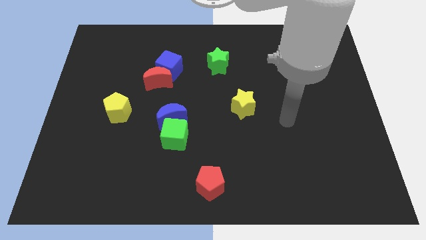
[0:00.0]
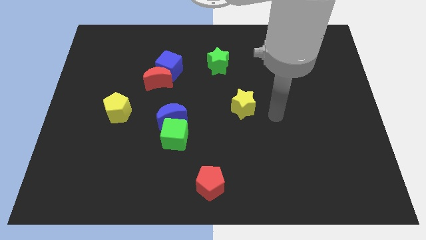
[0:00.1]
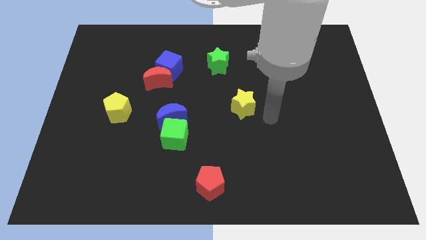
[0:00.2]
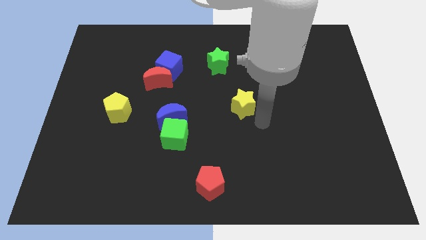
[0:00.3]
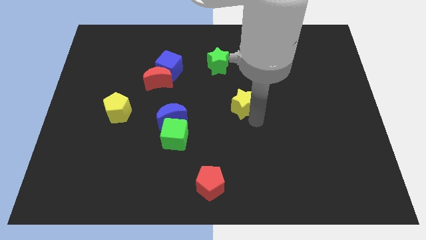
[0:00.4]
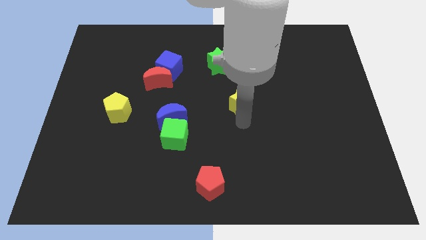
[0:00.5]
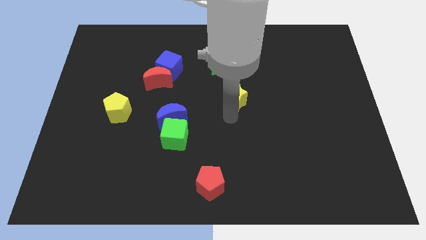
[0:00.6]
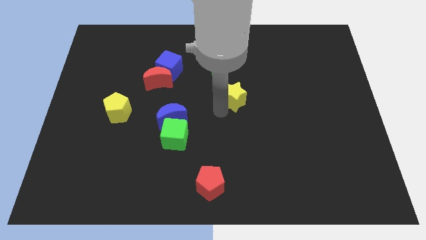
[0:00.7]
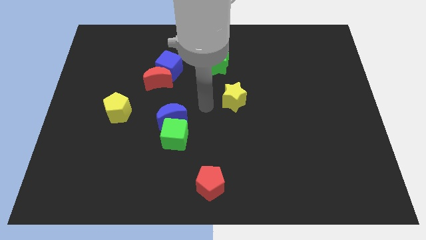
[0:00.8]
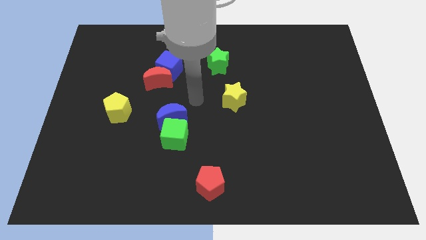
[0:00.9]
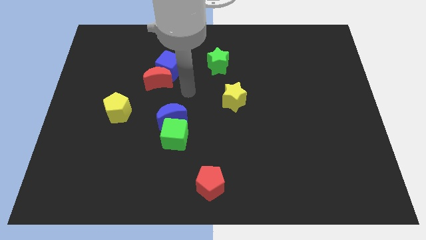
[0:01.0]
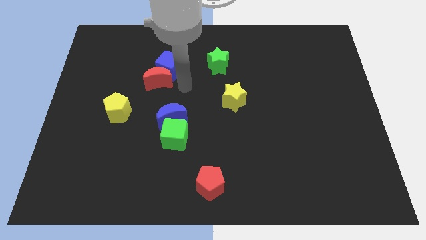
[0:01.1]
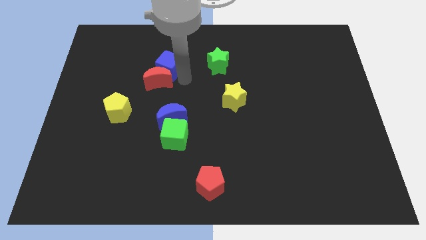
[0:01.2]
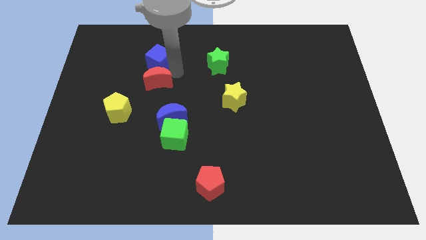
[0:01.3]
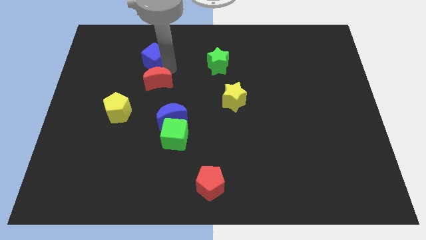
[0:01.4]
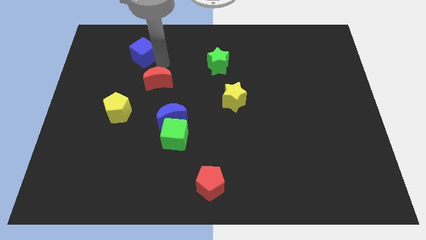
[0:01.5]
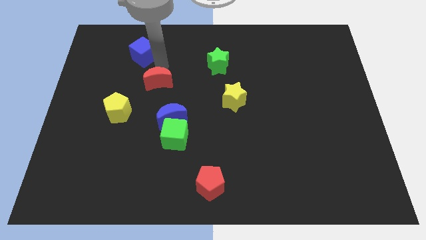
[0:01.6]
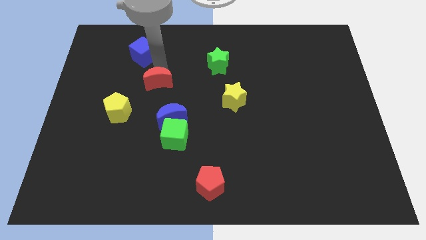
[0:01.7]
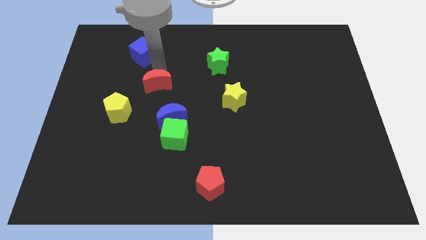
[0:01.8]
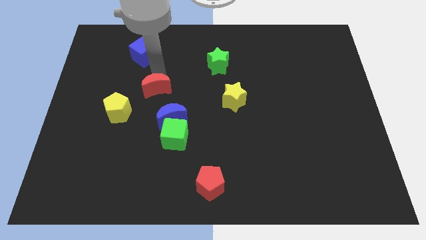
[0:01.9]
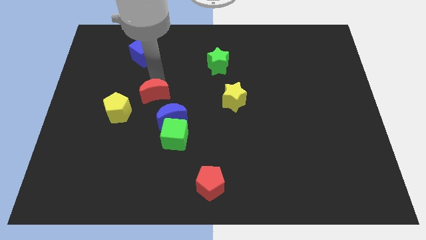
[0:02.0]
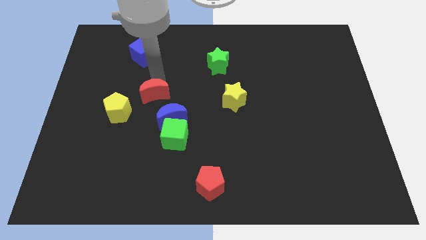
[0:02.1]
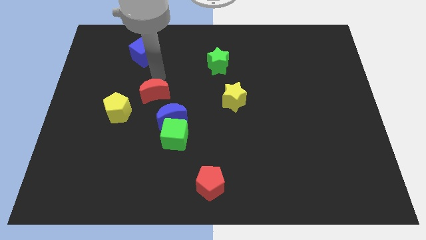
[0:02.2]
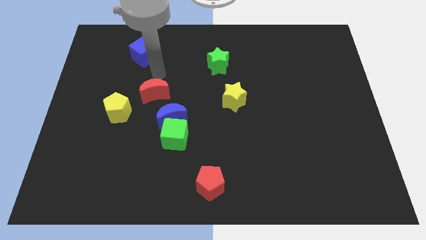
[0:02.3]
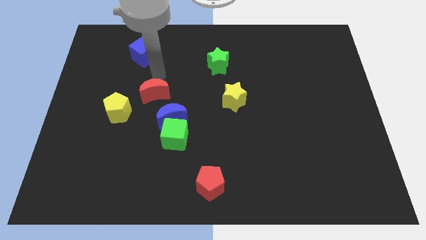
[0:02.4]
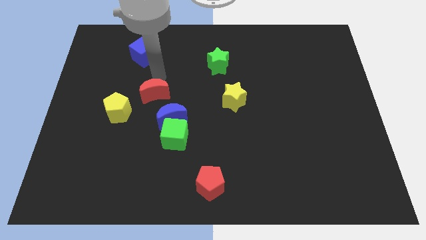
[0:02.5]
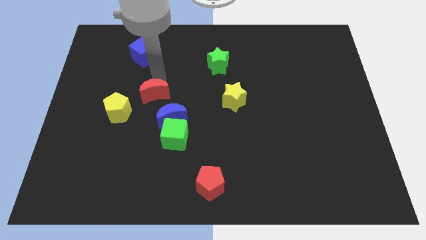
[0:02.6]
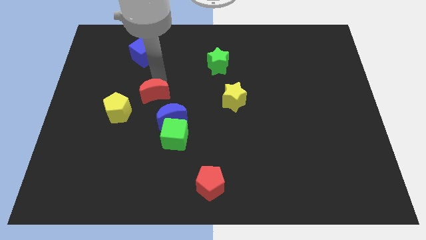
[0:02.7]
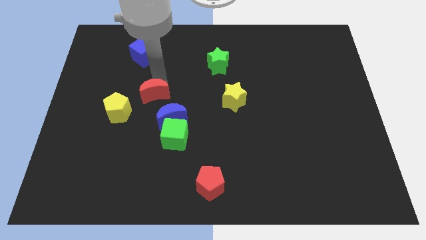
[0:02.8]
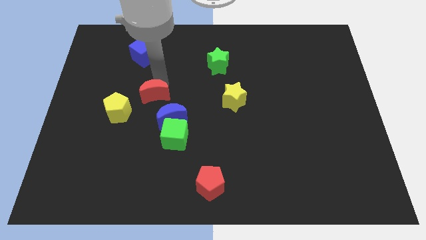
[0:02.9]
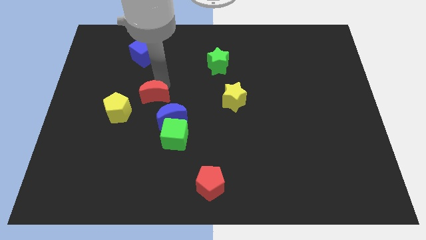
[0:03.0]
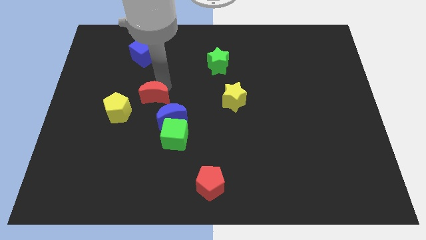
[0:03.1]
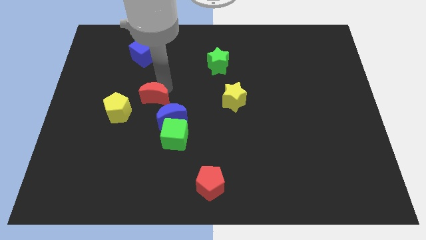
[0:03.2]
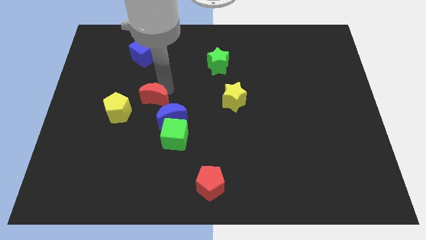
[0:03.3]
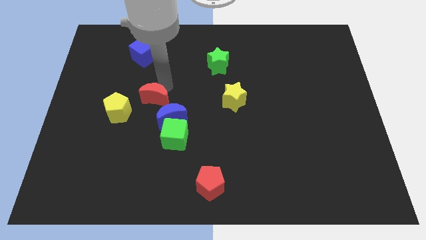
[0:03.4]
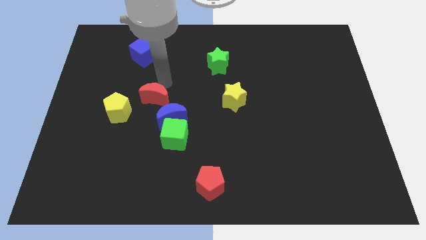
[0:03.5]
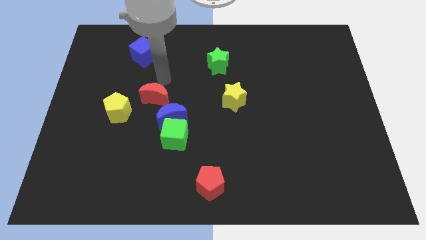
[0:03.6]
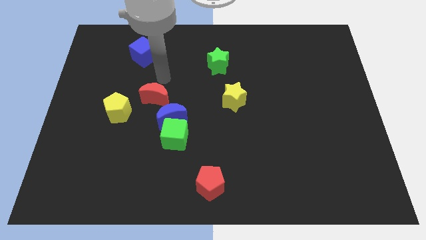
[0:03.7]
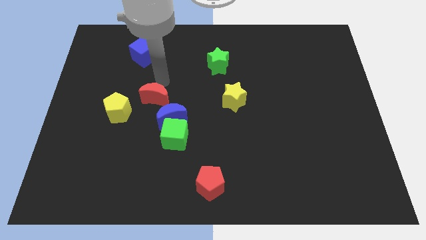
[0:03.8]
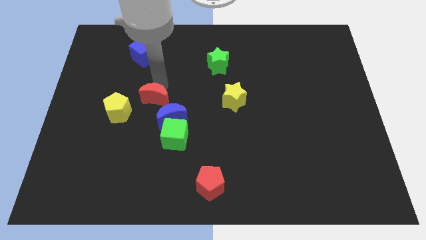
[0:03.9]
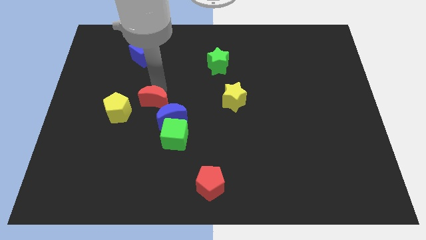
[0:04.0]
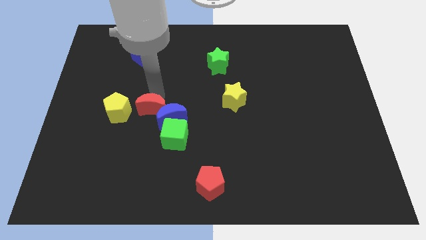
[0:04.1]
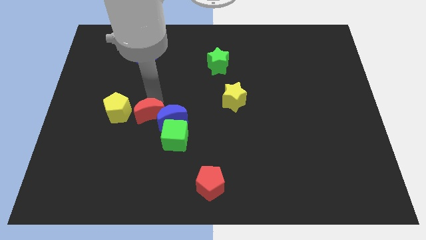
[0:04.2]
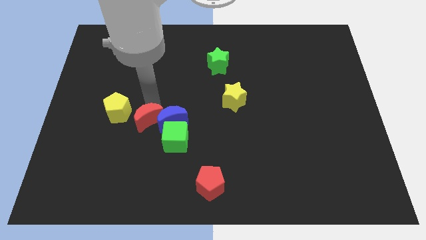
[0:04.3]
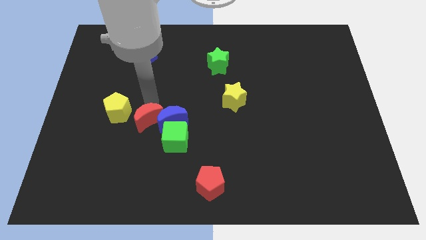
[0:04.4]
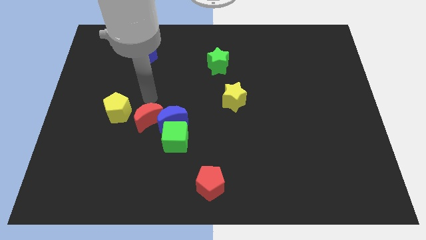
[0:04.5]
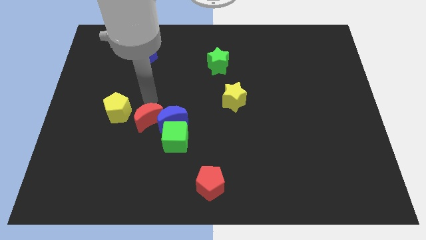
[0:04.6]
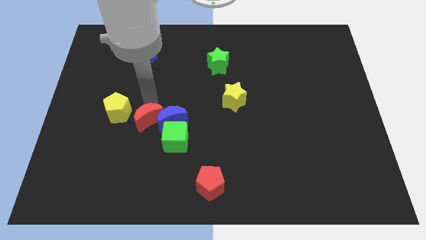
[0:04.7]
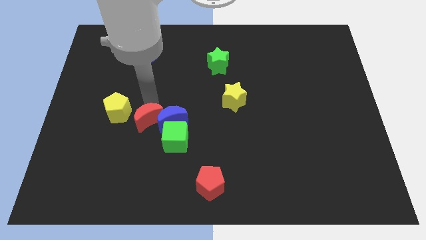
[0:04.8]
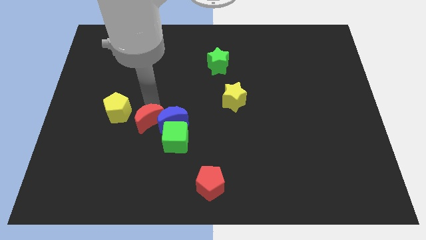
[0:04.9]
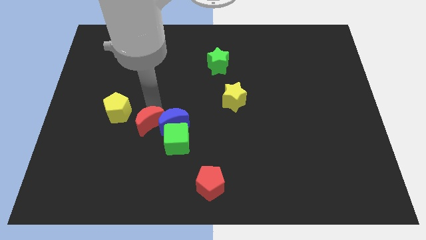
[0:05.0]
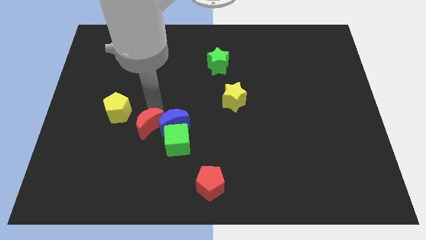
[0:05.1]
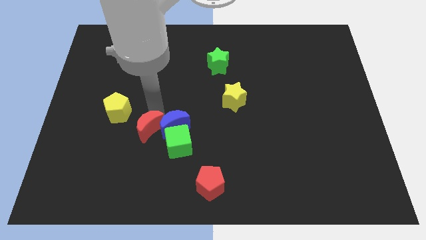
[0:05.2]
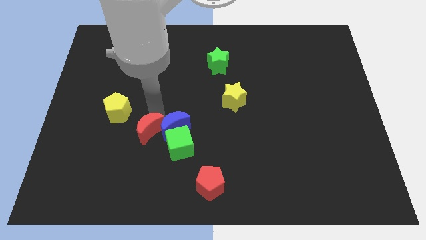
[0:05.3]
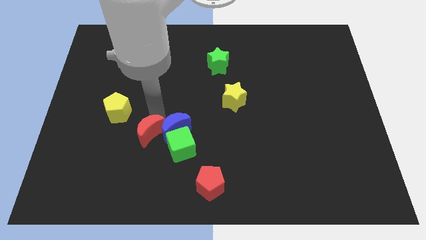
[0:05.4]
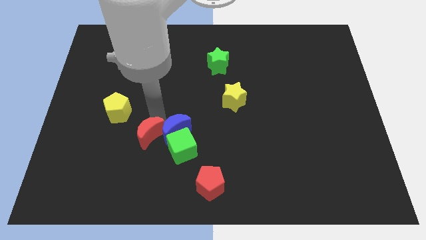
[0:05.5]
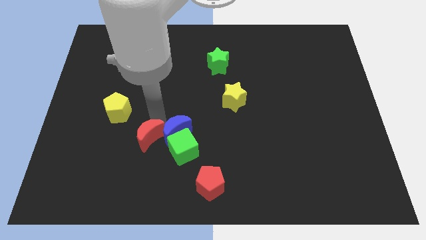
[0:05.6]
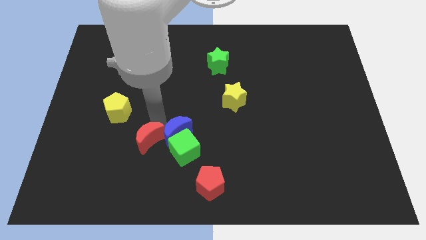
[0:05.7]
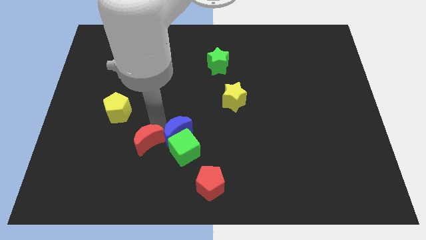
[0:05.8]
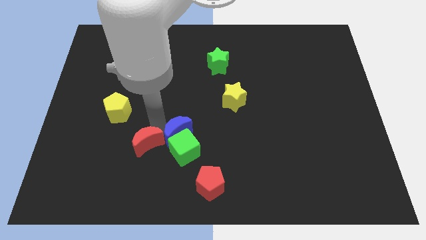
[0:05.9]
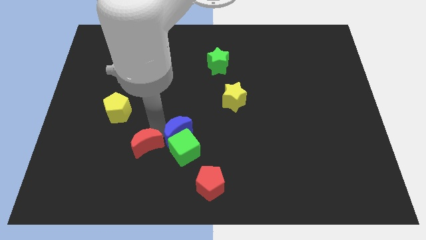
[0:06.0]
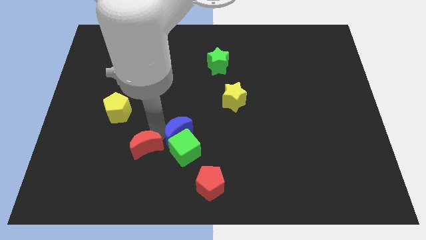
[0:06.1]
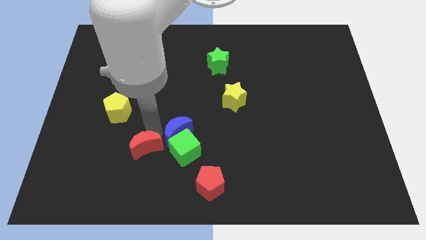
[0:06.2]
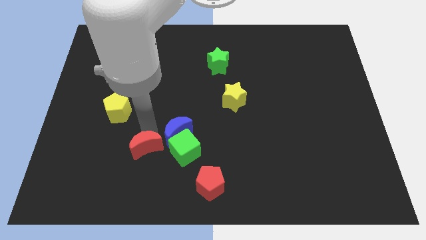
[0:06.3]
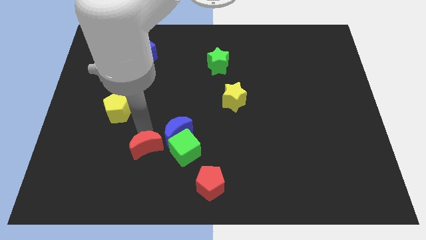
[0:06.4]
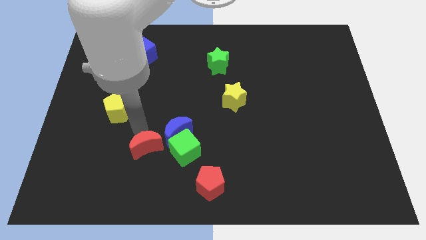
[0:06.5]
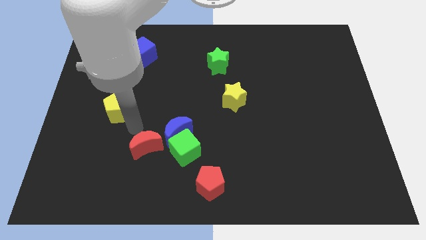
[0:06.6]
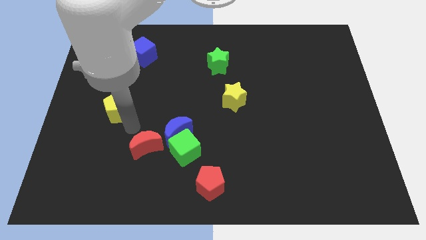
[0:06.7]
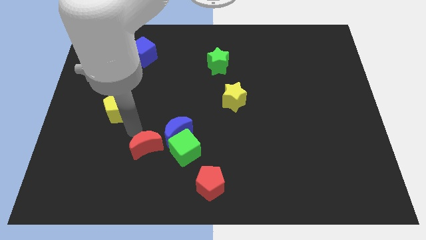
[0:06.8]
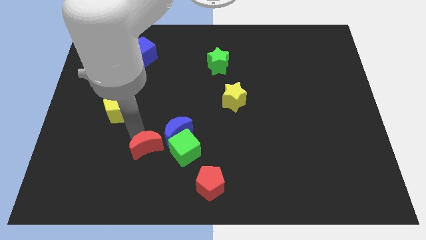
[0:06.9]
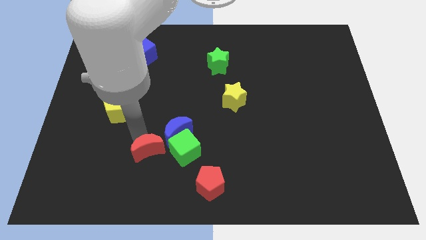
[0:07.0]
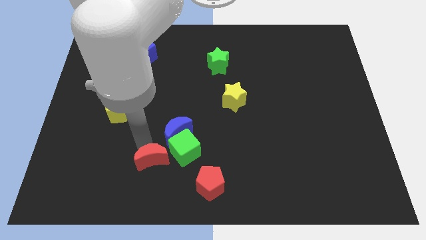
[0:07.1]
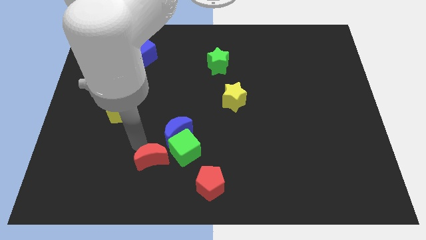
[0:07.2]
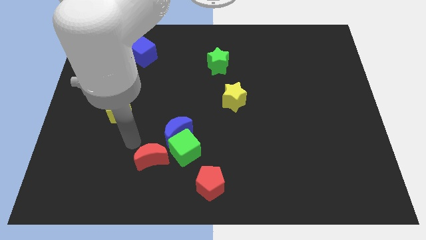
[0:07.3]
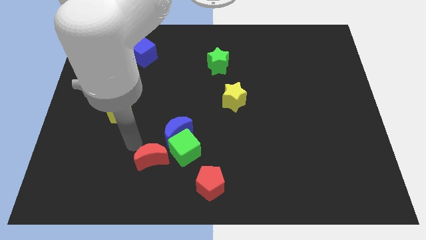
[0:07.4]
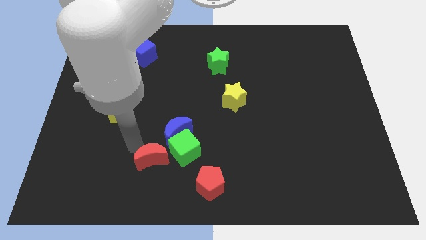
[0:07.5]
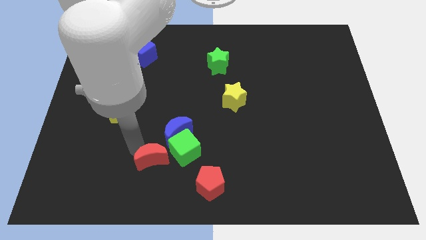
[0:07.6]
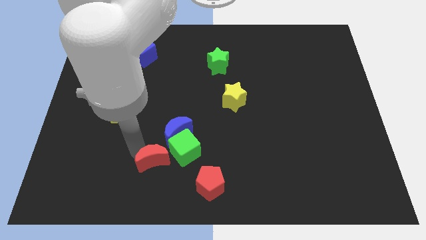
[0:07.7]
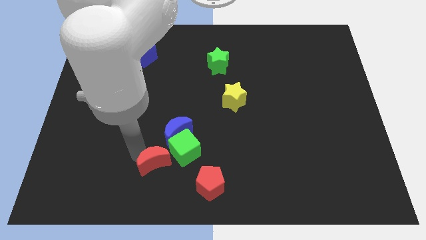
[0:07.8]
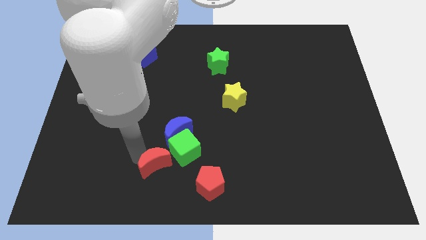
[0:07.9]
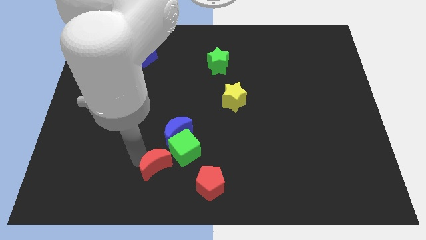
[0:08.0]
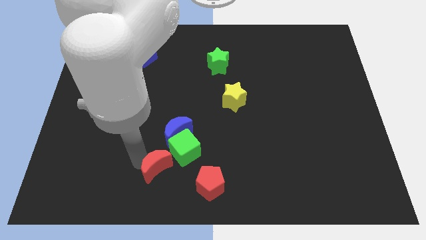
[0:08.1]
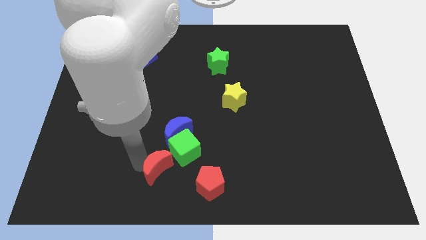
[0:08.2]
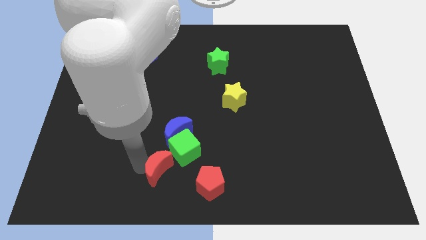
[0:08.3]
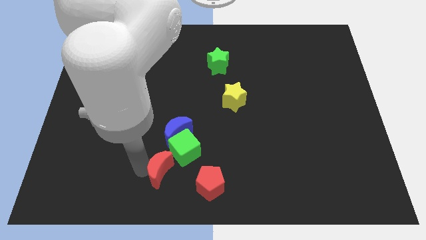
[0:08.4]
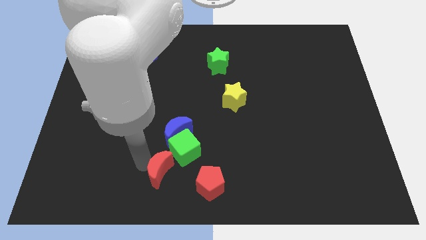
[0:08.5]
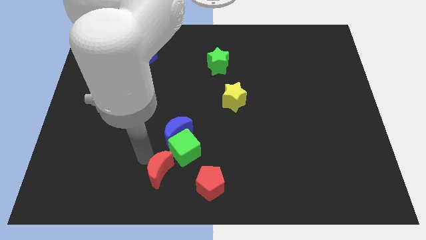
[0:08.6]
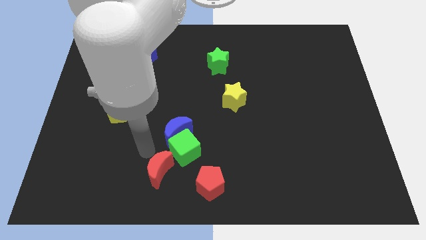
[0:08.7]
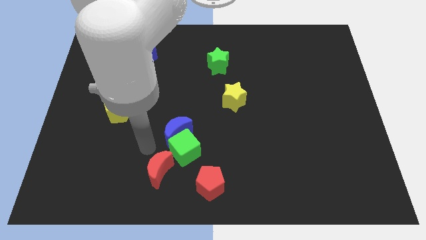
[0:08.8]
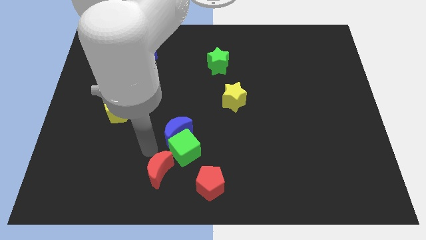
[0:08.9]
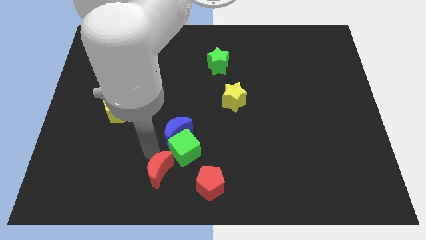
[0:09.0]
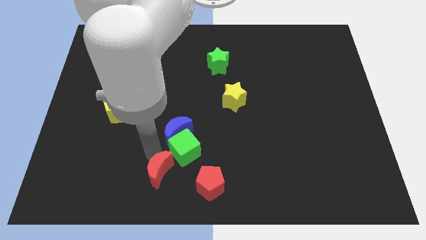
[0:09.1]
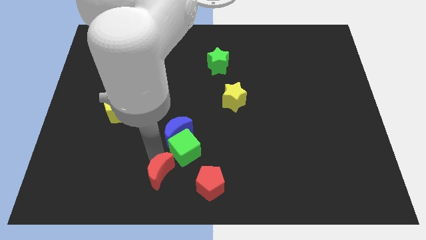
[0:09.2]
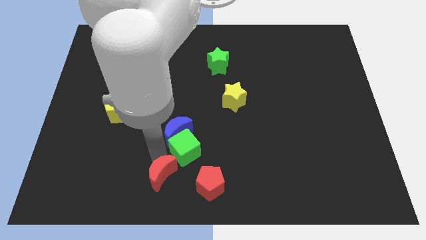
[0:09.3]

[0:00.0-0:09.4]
slide the red moon to the bottom side
